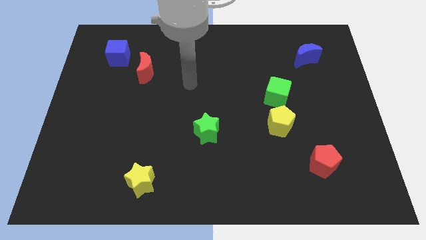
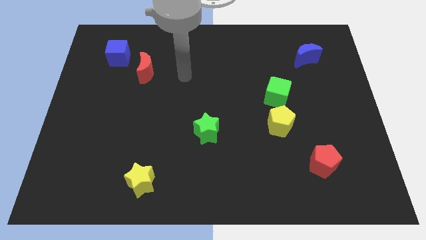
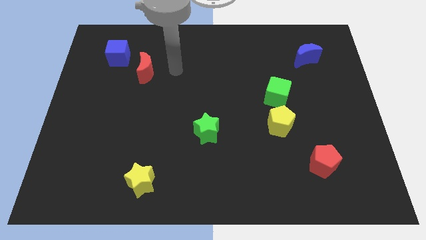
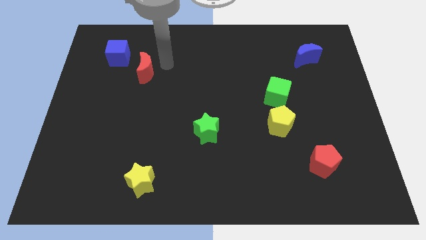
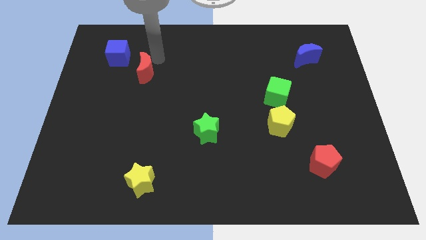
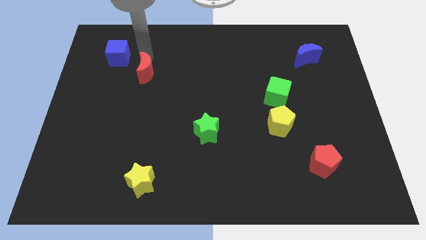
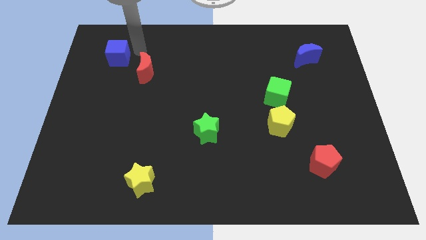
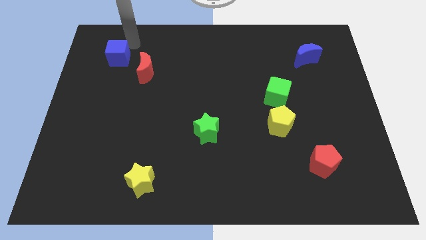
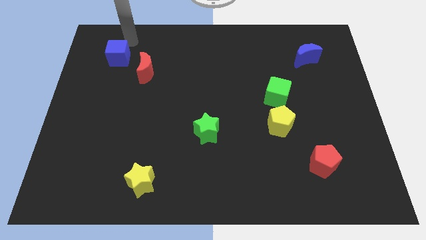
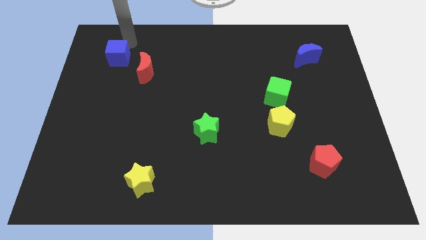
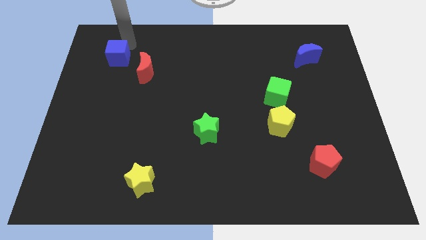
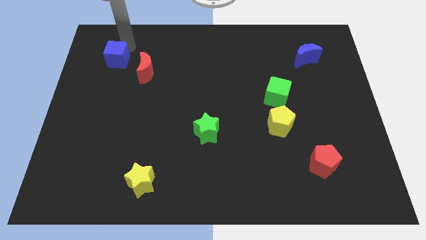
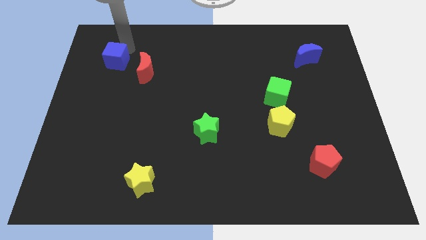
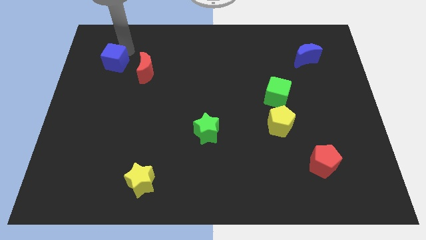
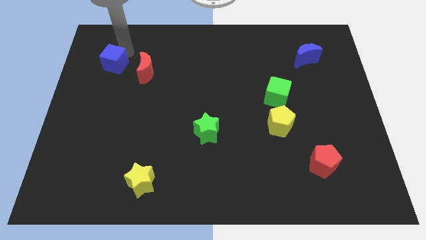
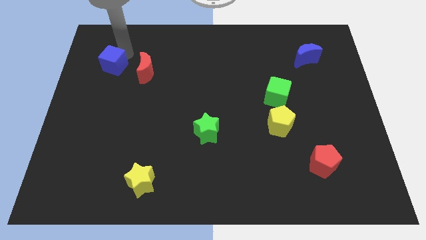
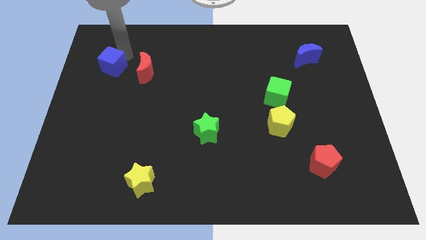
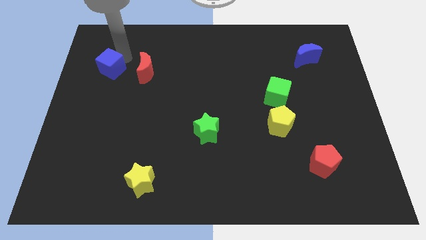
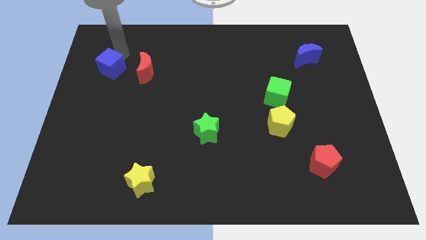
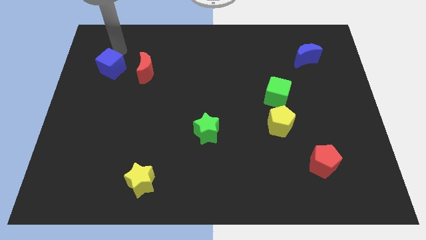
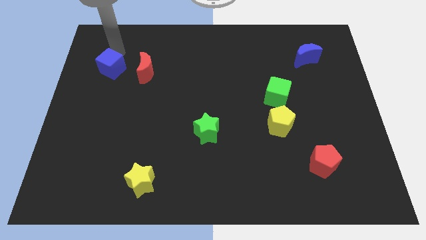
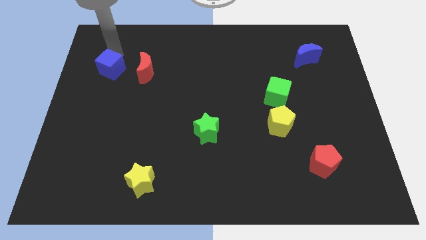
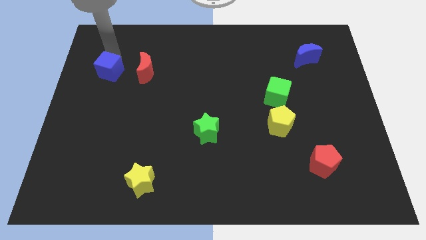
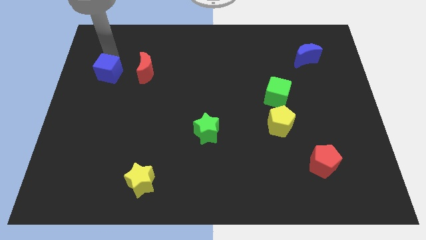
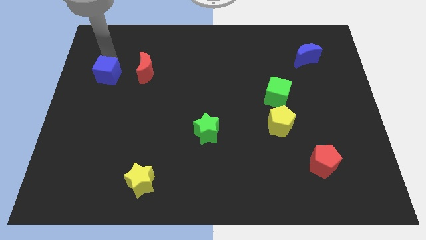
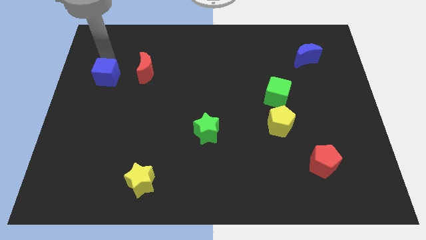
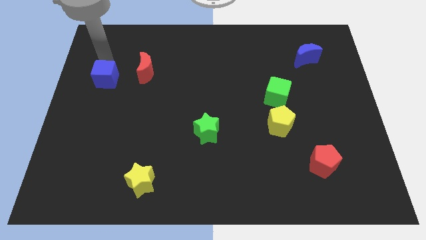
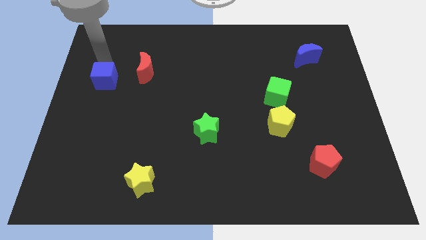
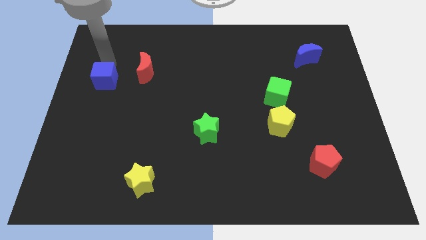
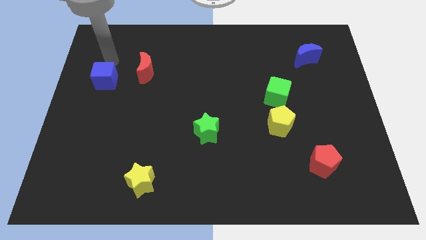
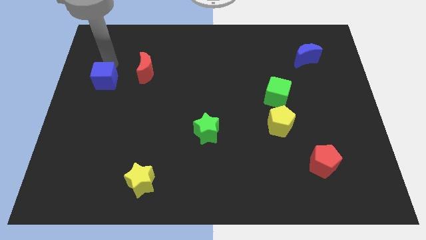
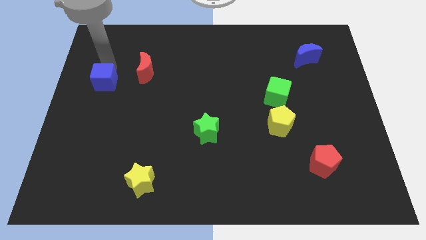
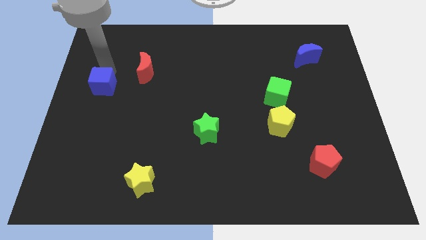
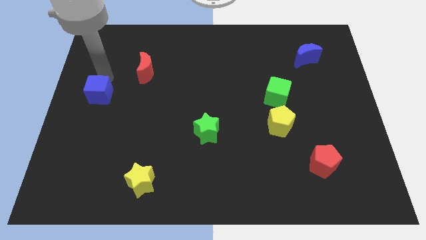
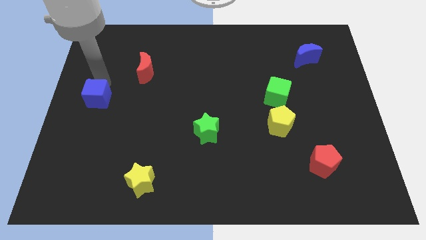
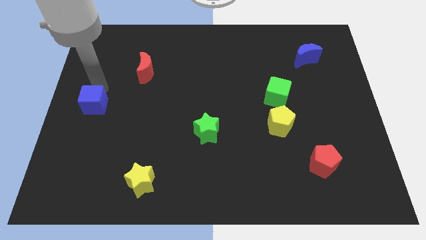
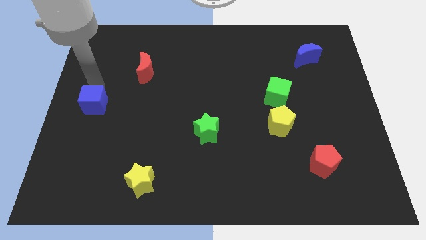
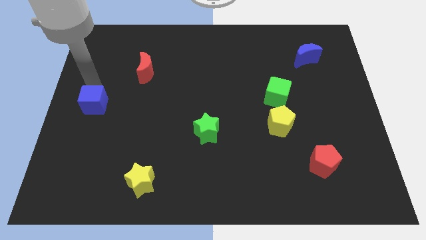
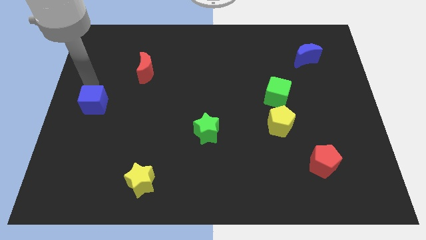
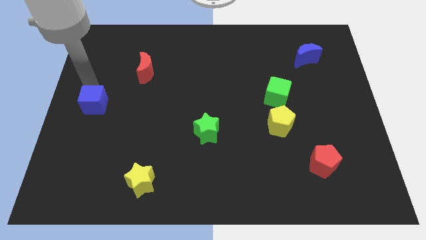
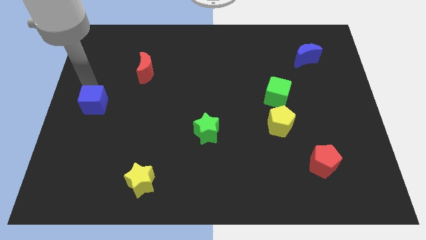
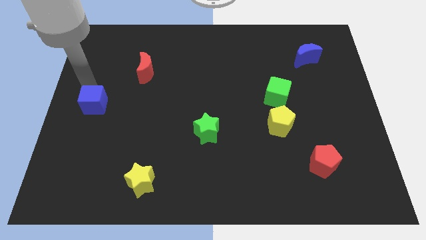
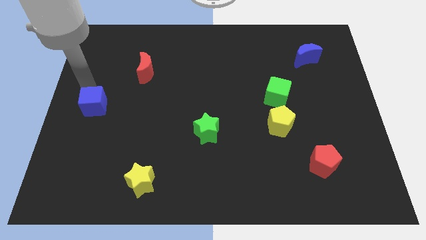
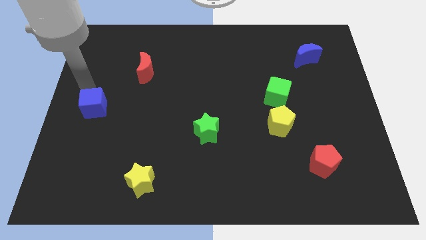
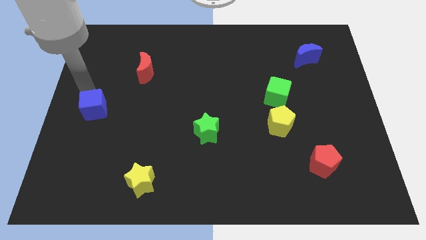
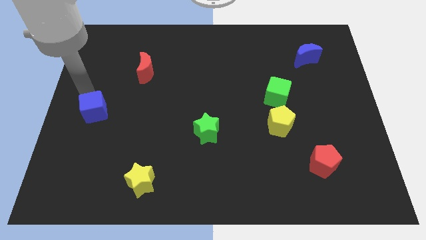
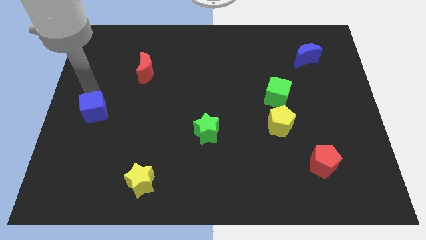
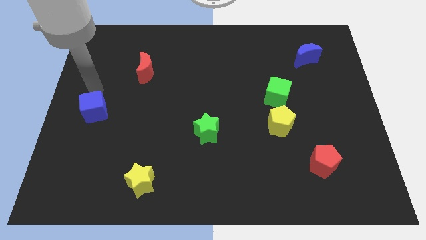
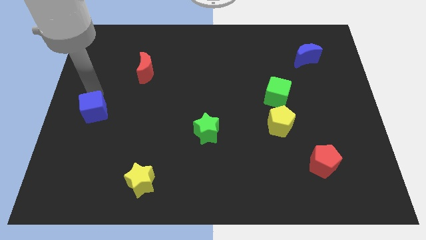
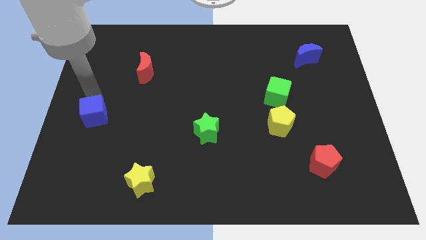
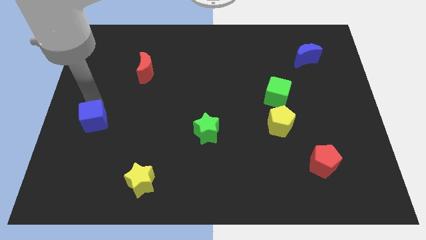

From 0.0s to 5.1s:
slide the blue cube downwards

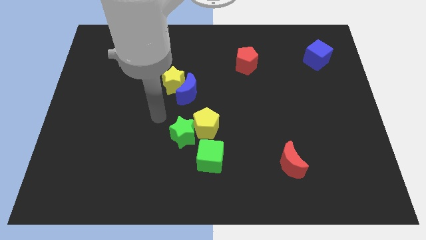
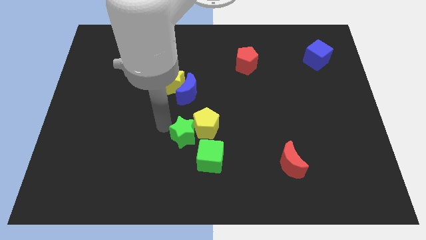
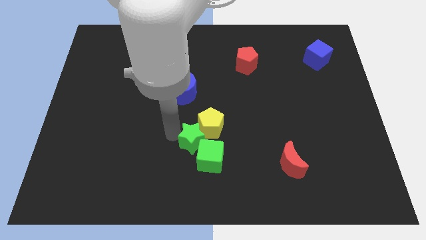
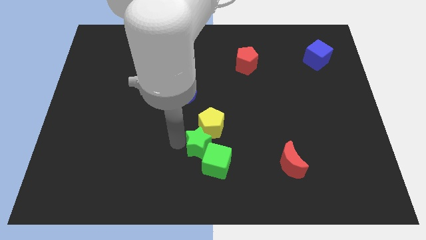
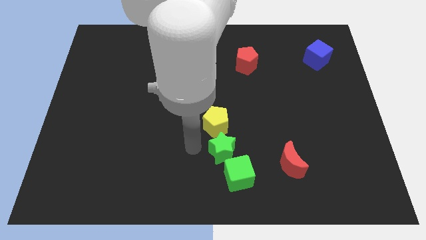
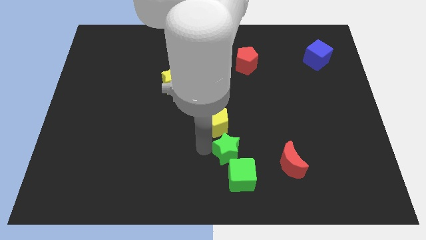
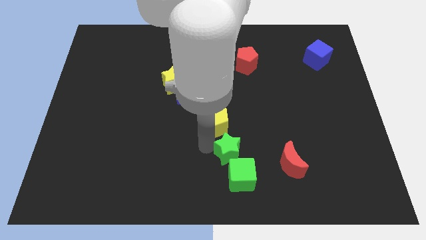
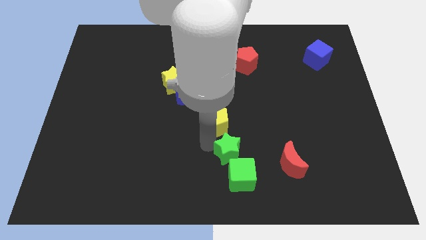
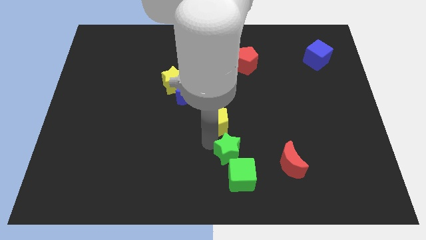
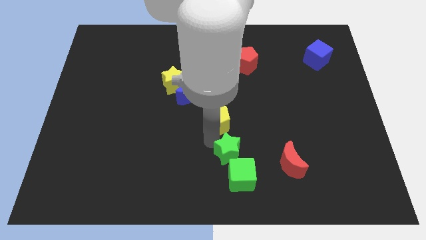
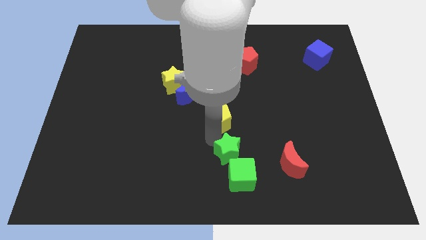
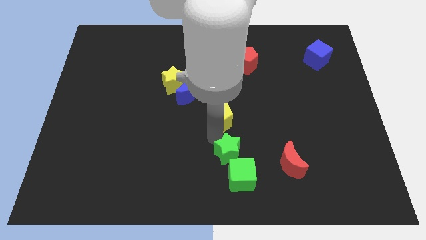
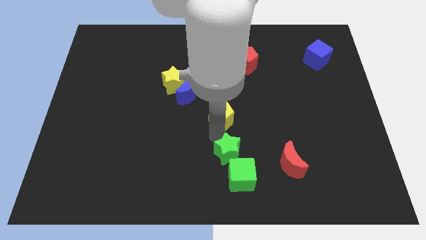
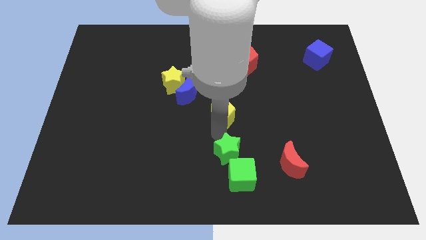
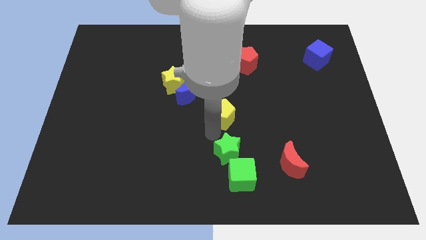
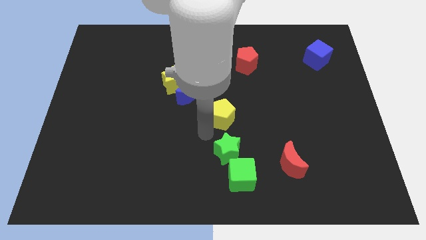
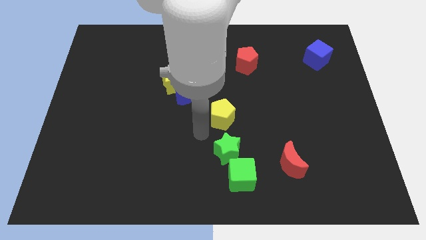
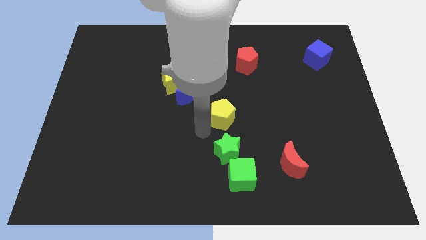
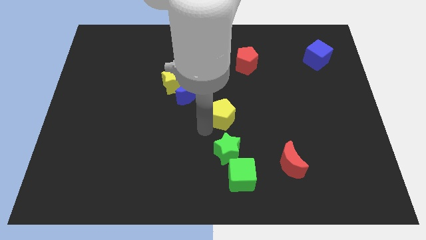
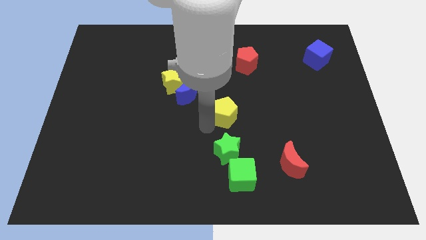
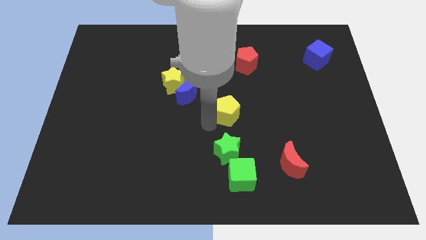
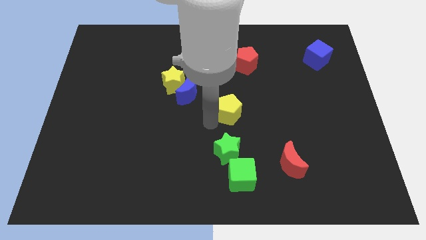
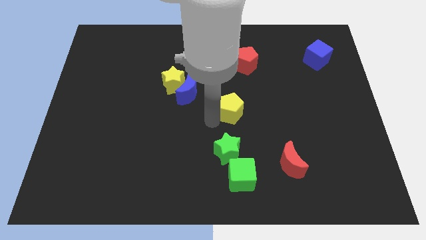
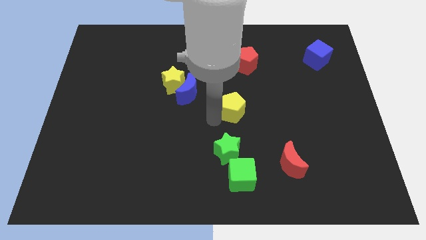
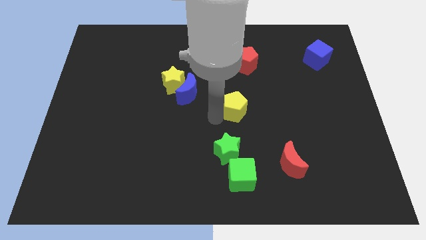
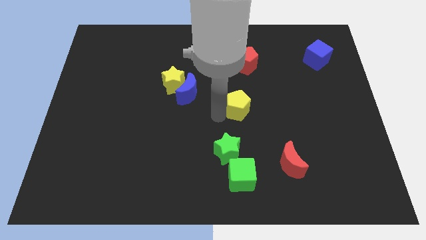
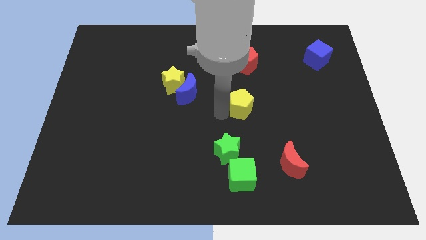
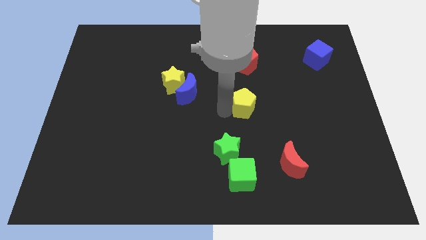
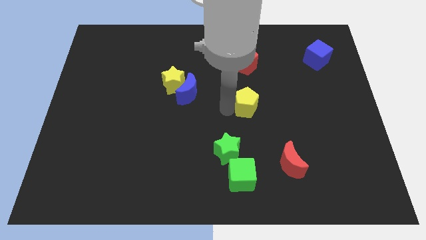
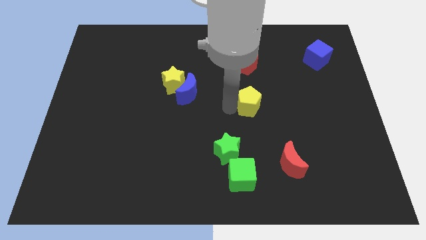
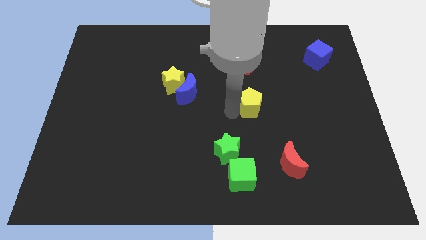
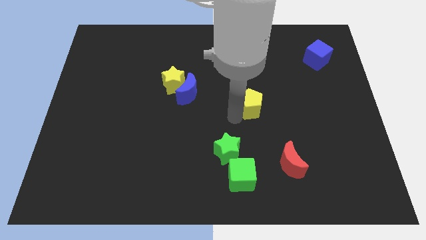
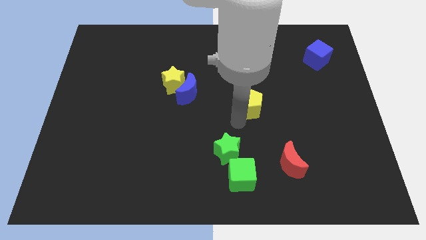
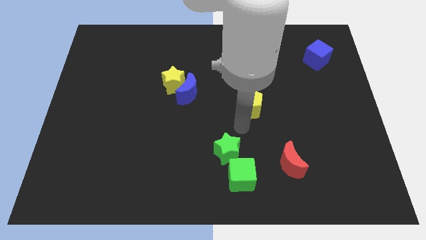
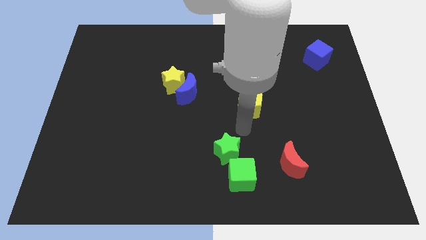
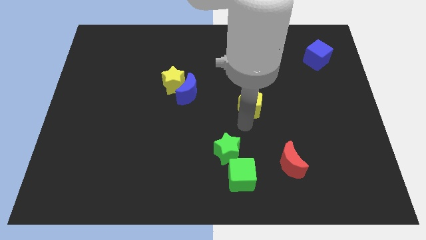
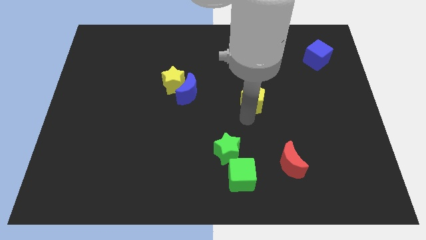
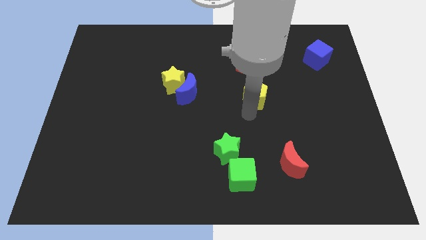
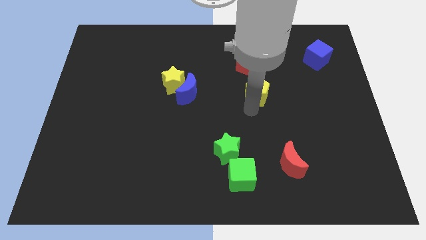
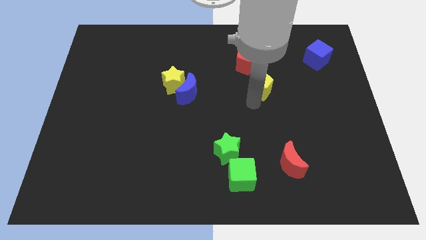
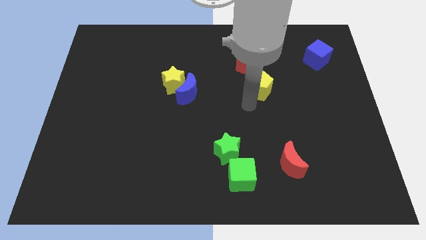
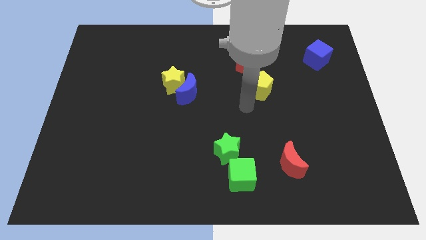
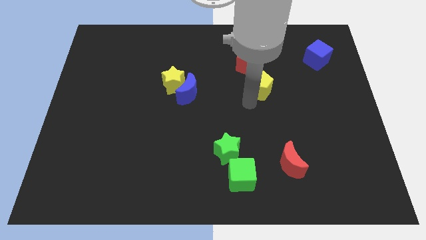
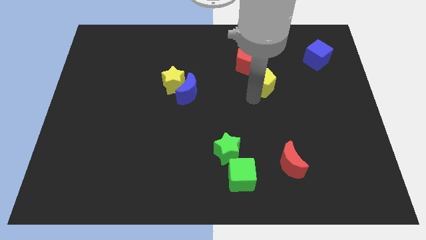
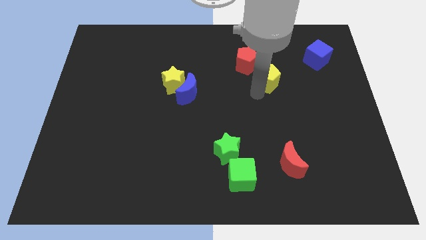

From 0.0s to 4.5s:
push the yellow pentagon diagonally upwards and right
